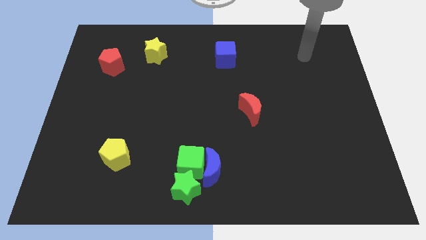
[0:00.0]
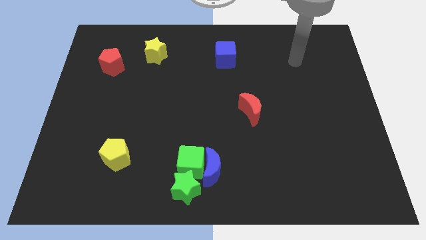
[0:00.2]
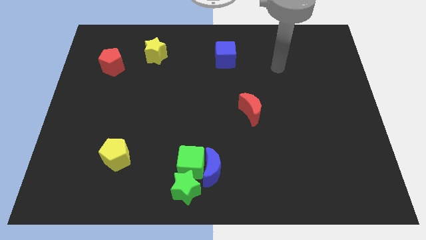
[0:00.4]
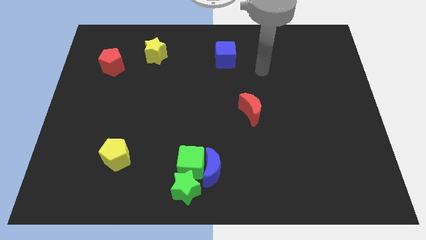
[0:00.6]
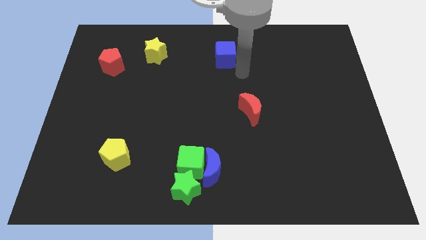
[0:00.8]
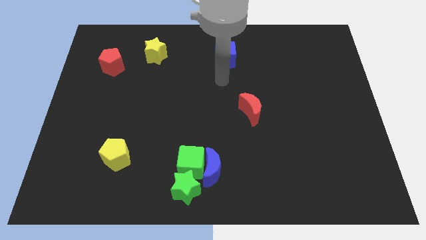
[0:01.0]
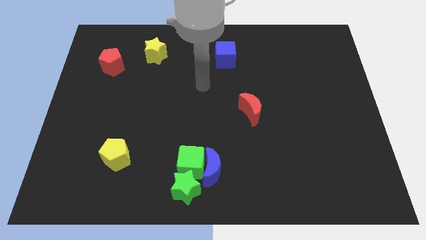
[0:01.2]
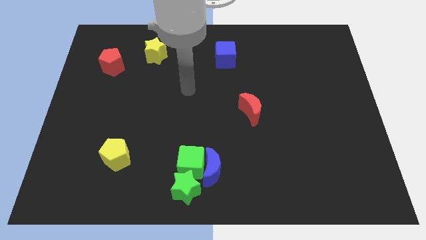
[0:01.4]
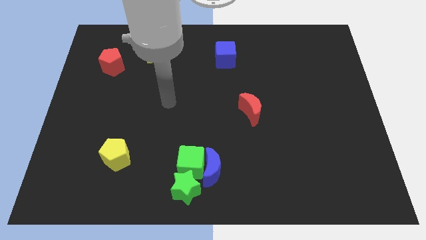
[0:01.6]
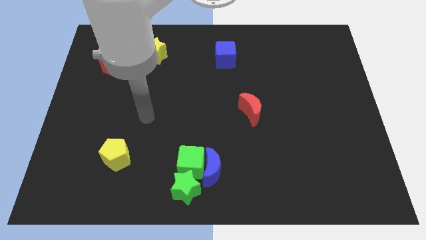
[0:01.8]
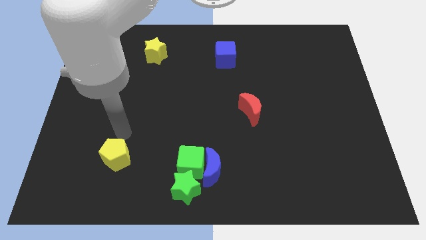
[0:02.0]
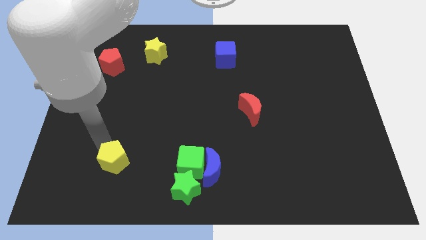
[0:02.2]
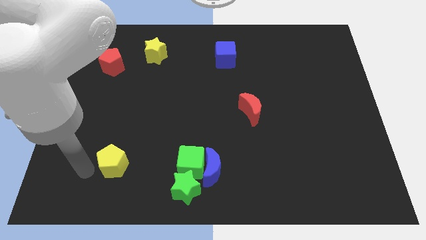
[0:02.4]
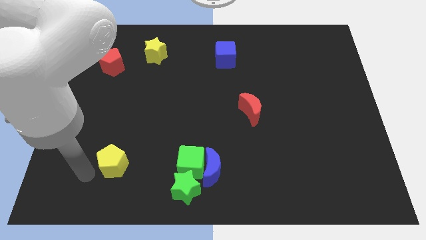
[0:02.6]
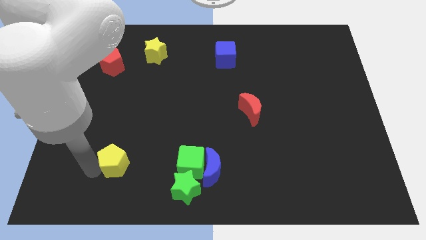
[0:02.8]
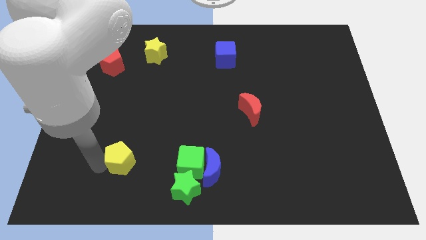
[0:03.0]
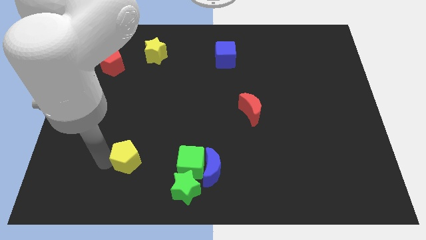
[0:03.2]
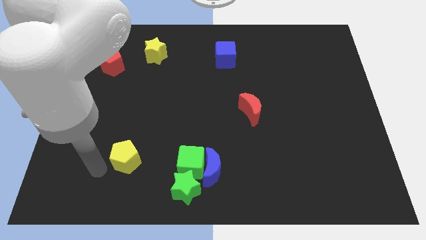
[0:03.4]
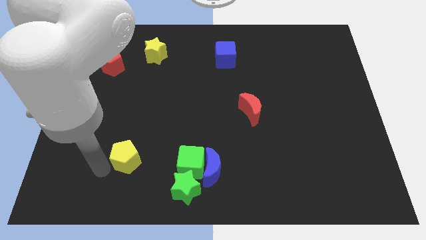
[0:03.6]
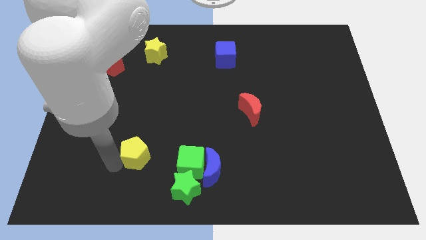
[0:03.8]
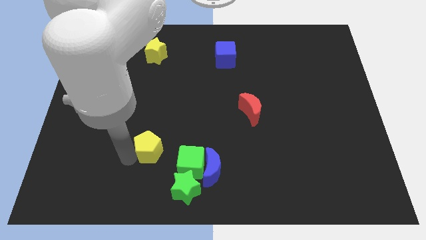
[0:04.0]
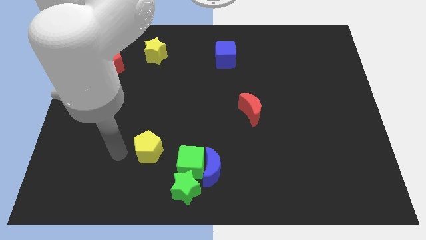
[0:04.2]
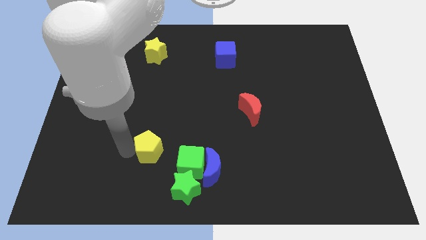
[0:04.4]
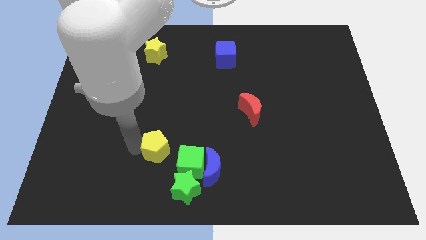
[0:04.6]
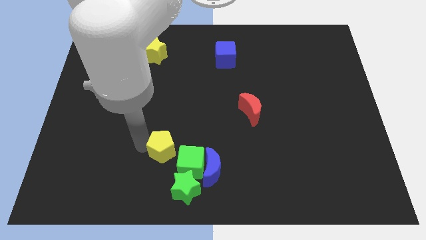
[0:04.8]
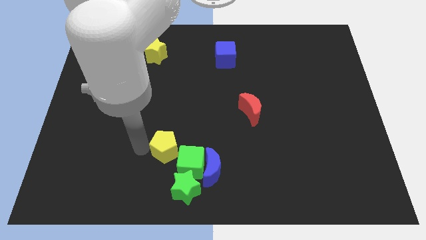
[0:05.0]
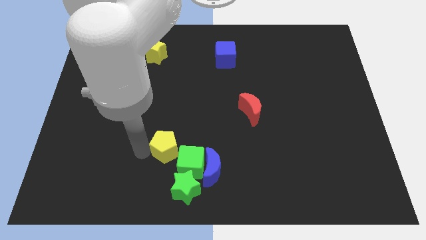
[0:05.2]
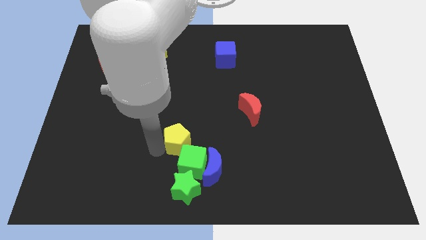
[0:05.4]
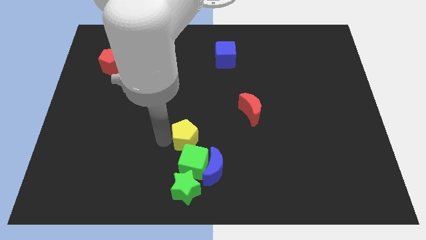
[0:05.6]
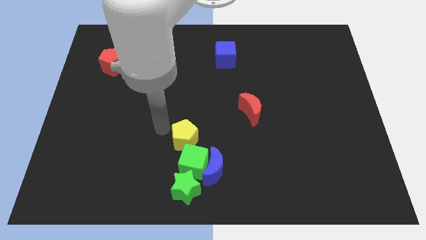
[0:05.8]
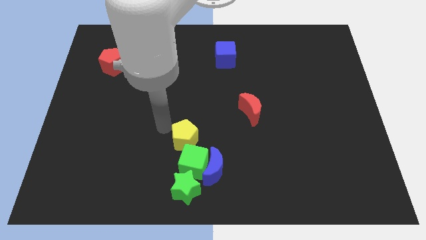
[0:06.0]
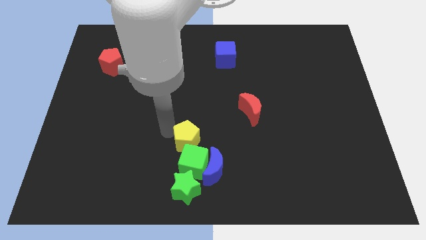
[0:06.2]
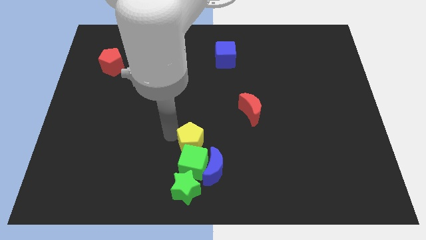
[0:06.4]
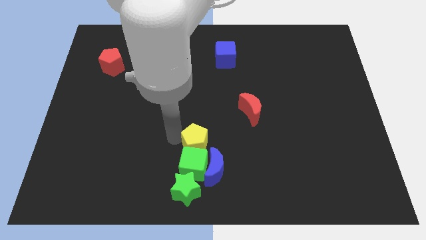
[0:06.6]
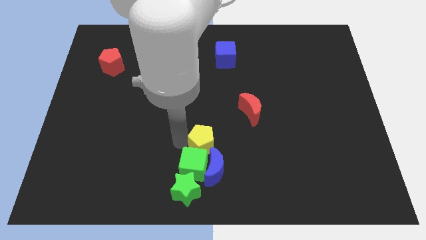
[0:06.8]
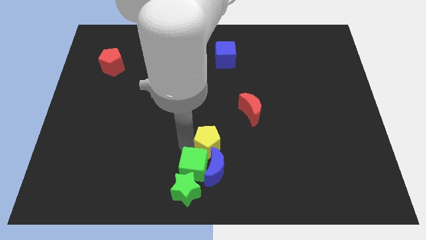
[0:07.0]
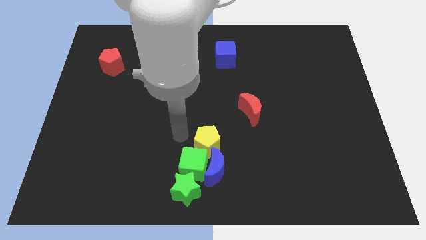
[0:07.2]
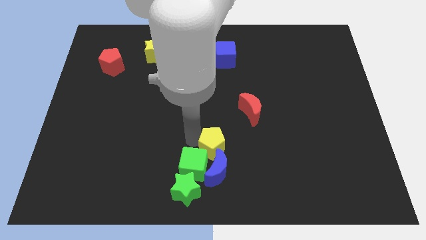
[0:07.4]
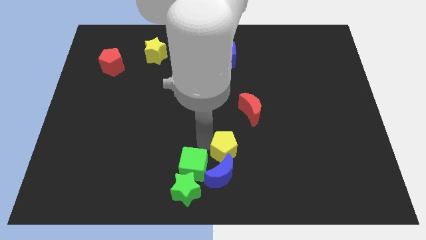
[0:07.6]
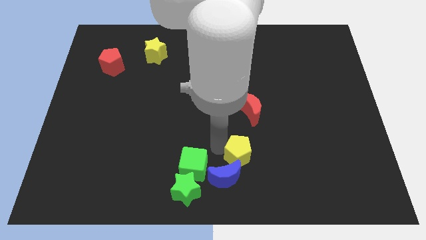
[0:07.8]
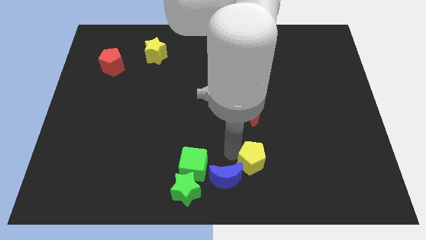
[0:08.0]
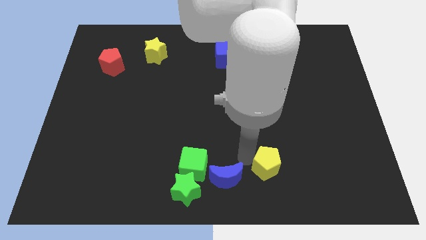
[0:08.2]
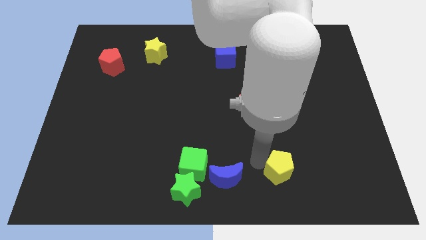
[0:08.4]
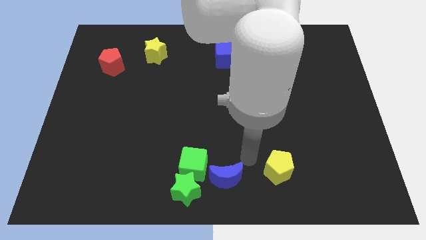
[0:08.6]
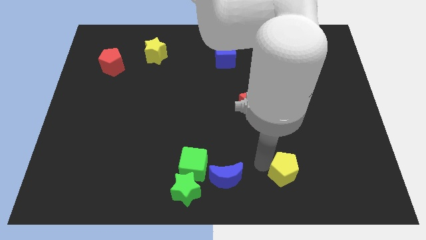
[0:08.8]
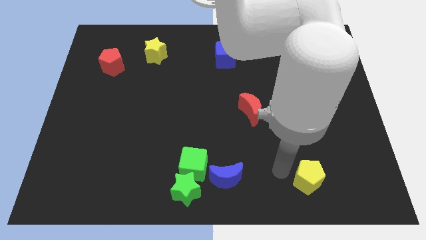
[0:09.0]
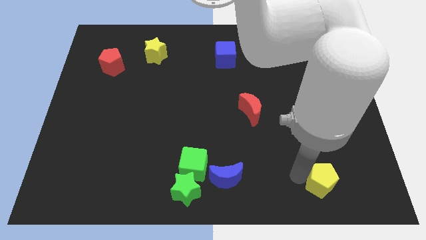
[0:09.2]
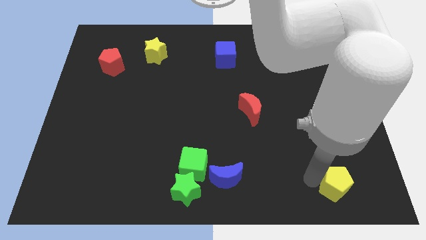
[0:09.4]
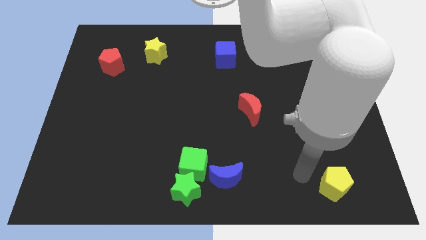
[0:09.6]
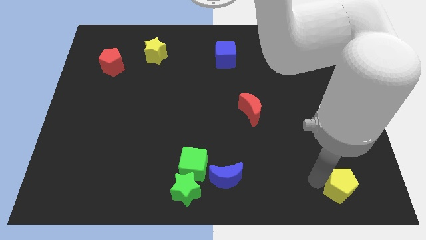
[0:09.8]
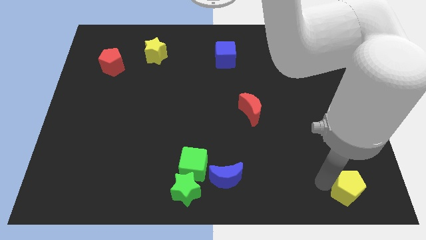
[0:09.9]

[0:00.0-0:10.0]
put the yellow pentagon to the lower right corner

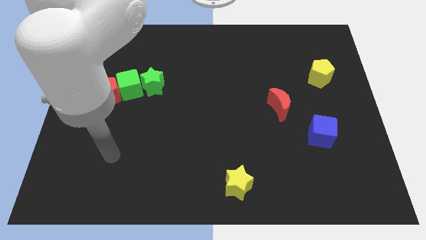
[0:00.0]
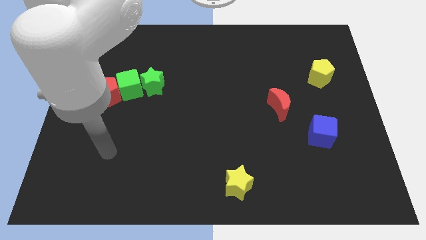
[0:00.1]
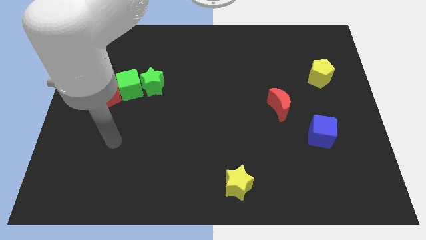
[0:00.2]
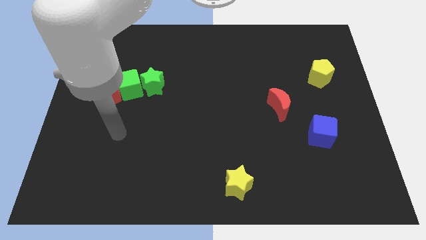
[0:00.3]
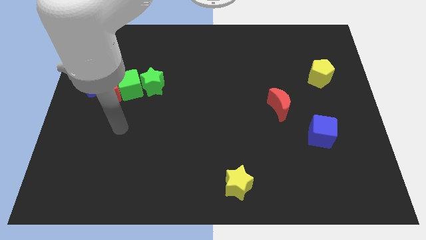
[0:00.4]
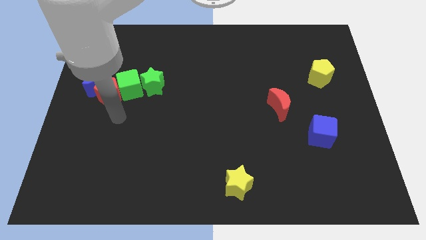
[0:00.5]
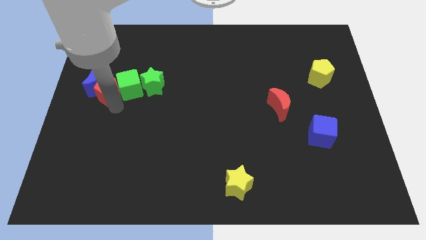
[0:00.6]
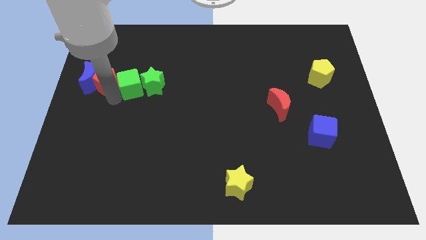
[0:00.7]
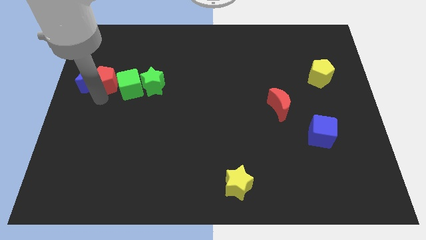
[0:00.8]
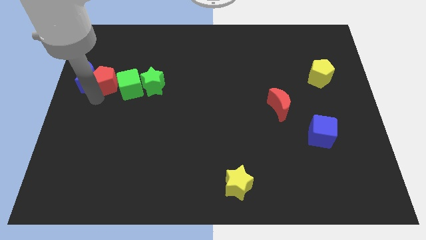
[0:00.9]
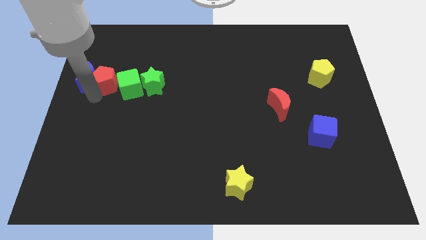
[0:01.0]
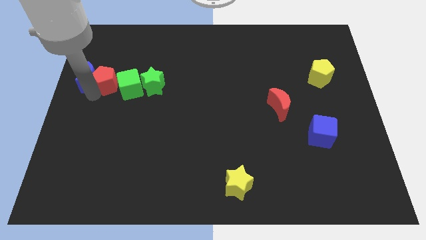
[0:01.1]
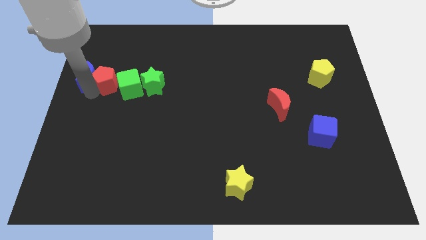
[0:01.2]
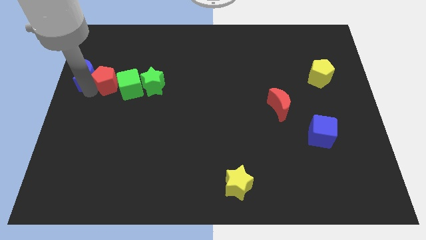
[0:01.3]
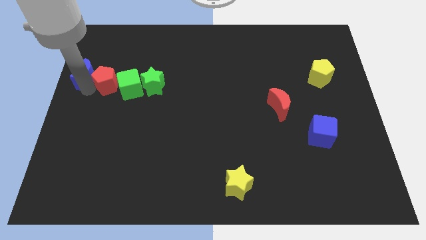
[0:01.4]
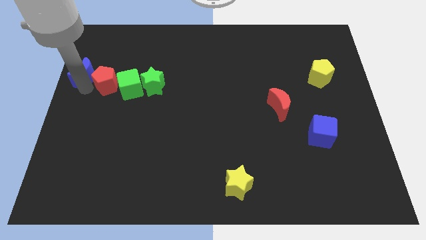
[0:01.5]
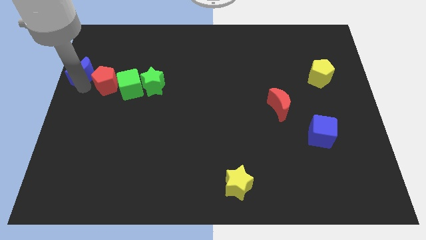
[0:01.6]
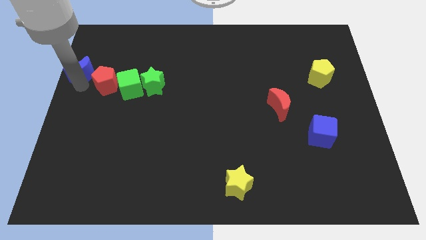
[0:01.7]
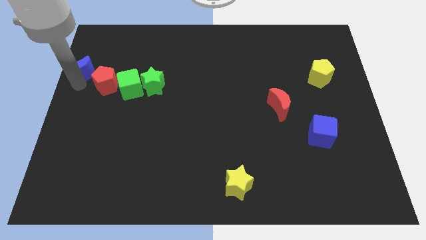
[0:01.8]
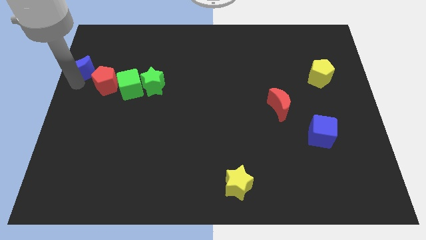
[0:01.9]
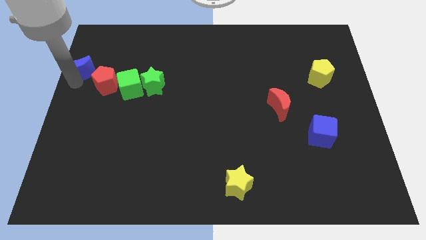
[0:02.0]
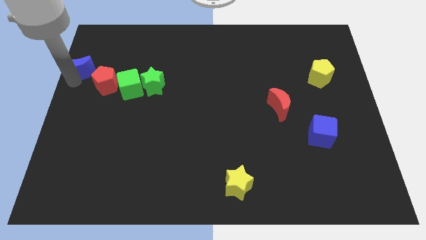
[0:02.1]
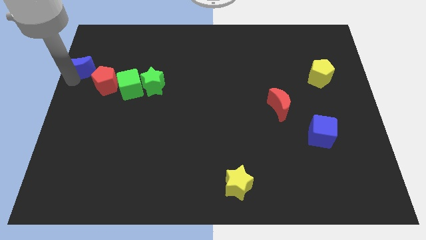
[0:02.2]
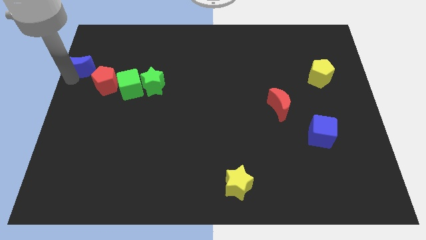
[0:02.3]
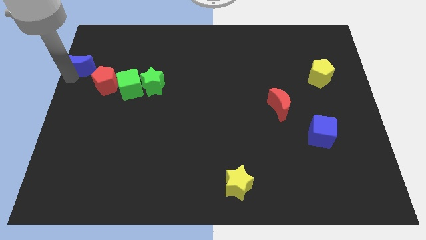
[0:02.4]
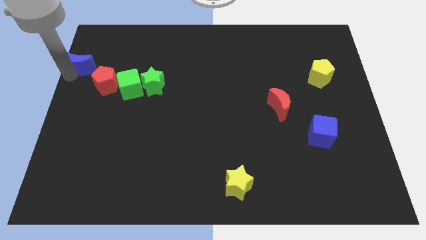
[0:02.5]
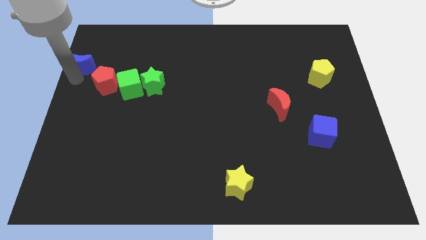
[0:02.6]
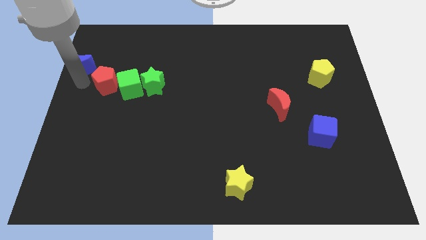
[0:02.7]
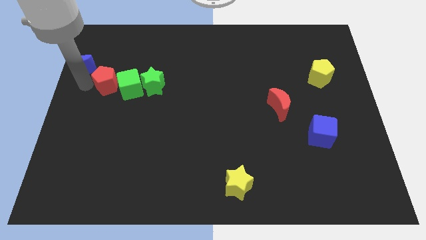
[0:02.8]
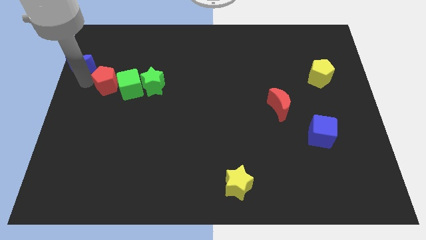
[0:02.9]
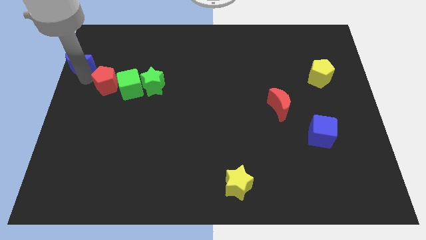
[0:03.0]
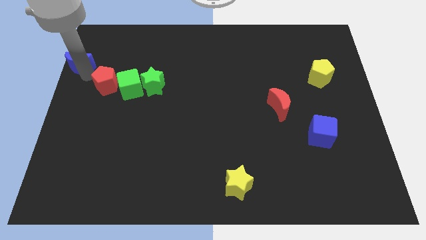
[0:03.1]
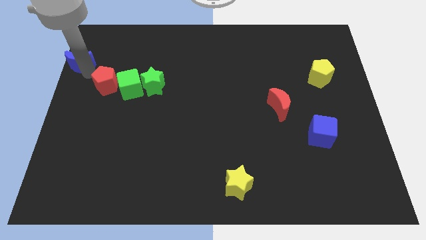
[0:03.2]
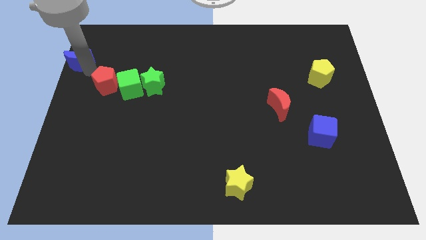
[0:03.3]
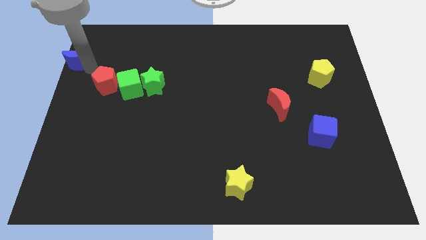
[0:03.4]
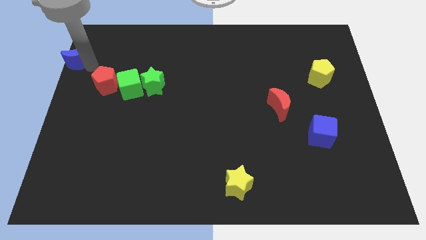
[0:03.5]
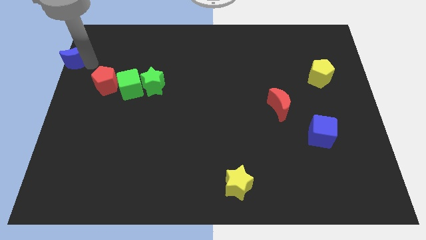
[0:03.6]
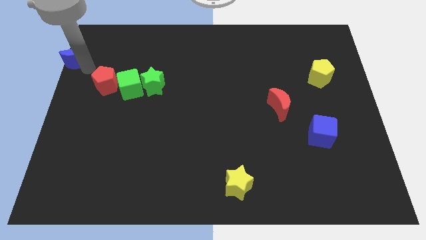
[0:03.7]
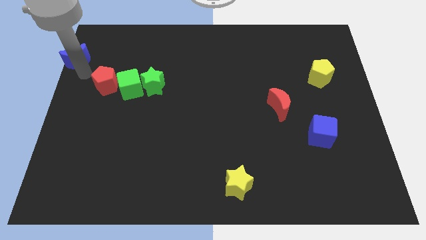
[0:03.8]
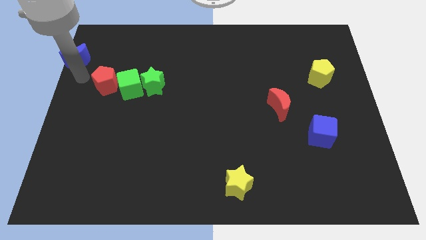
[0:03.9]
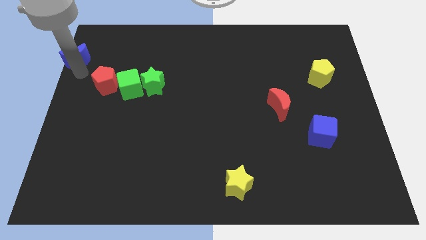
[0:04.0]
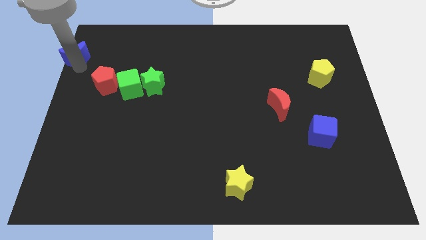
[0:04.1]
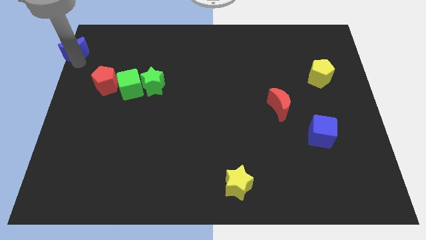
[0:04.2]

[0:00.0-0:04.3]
push the blue moon to the top left of the board
